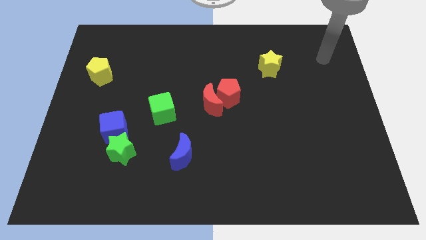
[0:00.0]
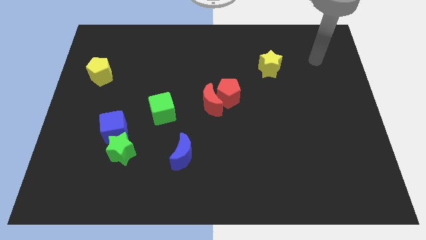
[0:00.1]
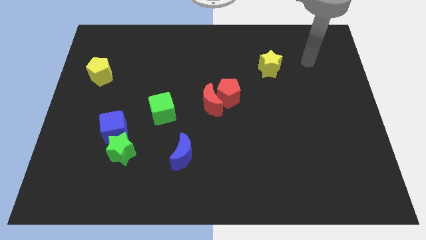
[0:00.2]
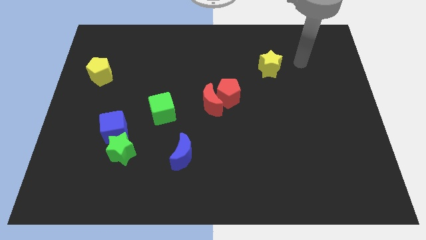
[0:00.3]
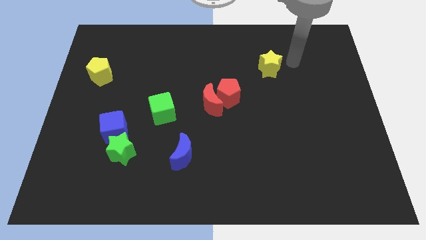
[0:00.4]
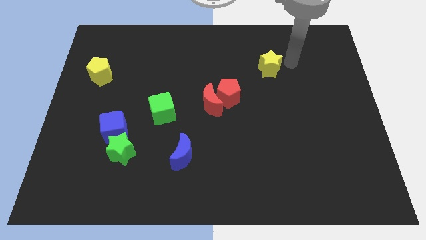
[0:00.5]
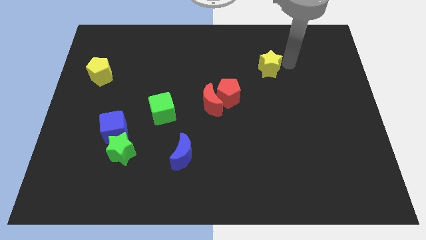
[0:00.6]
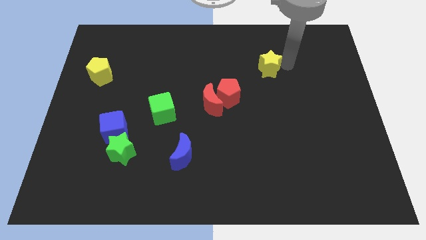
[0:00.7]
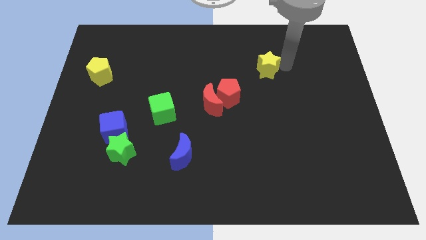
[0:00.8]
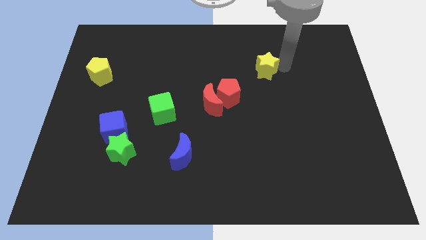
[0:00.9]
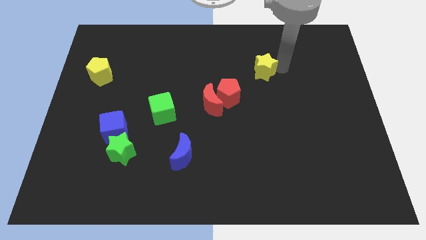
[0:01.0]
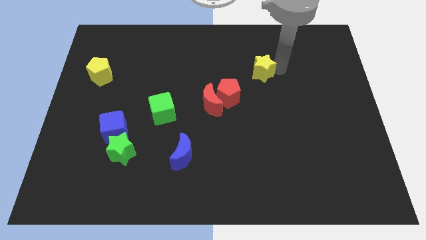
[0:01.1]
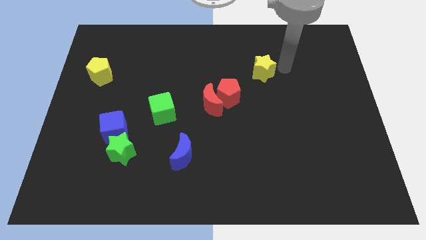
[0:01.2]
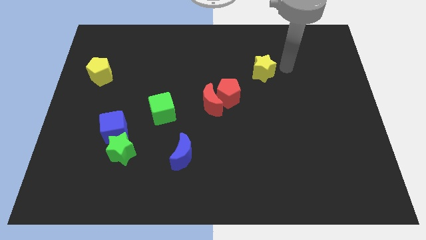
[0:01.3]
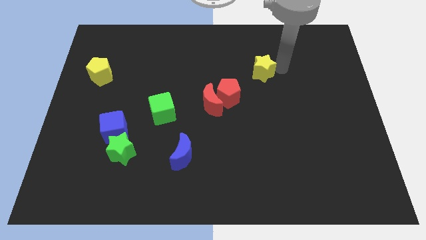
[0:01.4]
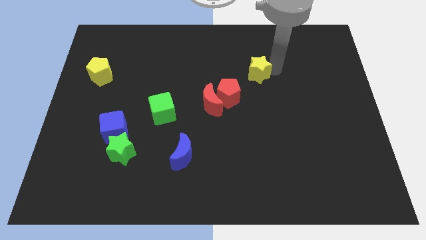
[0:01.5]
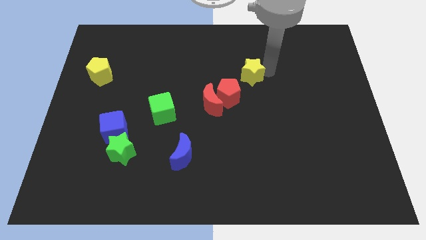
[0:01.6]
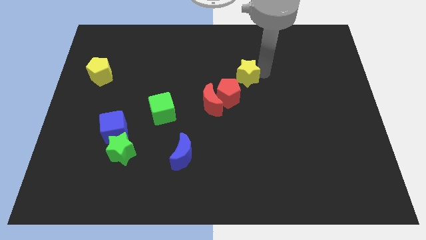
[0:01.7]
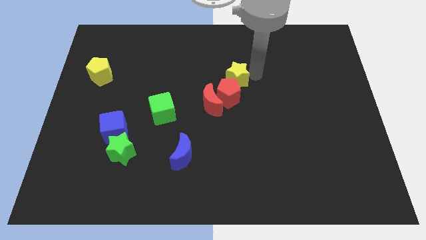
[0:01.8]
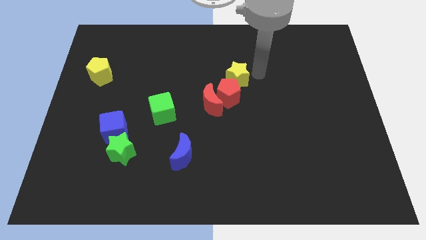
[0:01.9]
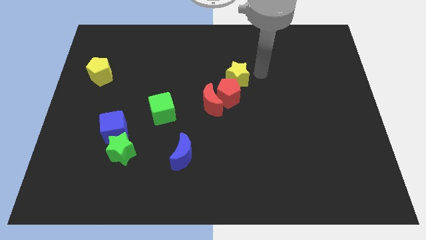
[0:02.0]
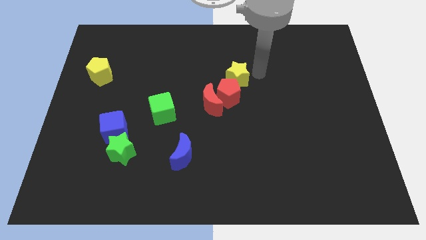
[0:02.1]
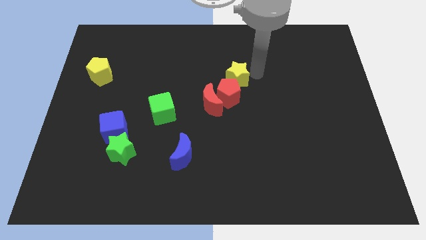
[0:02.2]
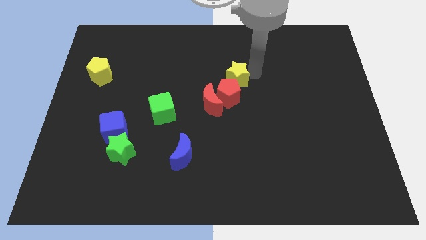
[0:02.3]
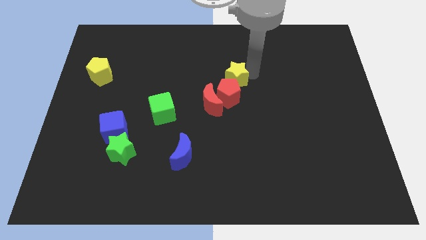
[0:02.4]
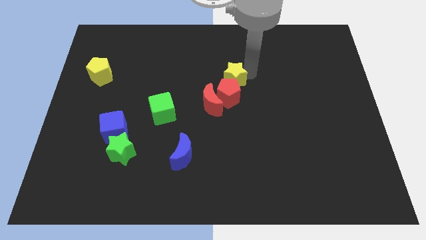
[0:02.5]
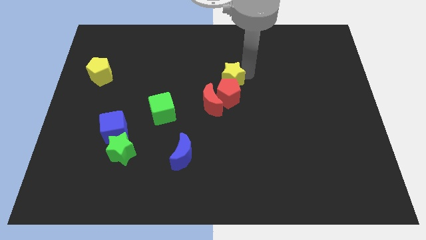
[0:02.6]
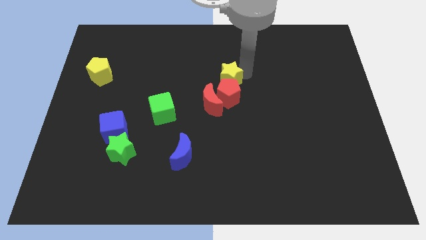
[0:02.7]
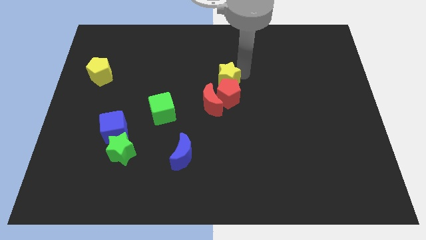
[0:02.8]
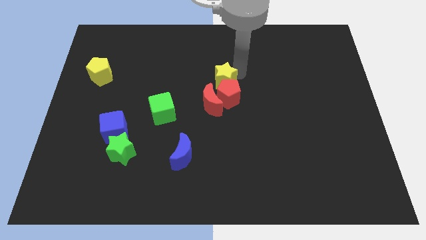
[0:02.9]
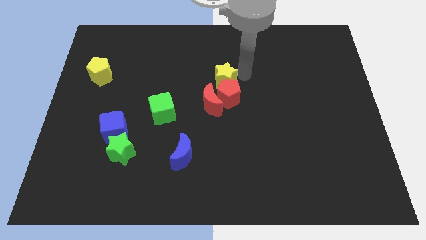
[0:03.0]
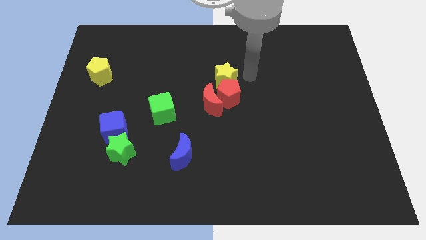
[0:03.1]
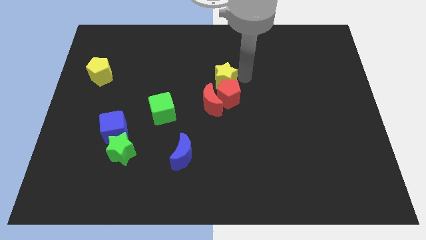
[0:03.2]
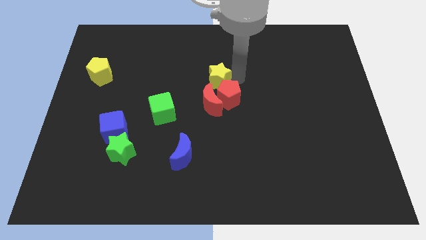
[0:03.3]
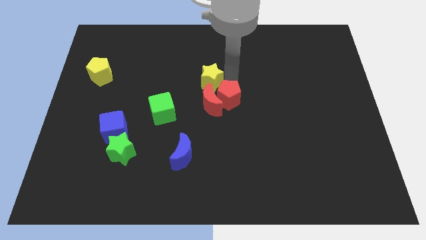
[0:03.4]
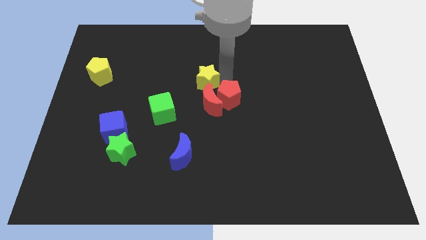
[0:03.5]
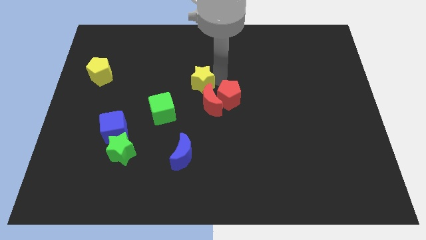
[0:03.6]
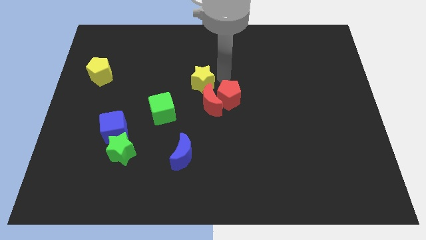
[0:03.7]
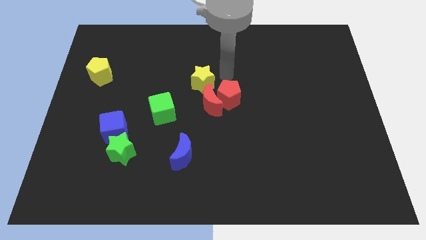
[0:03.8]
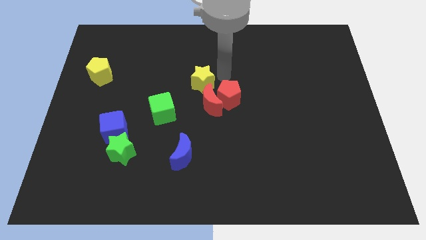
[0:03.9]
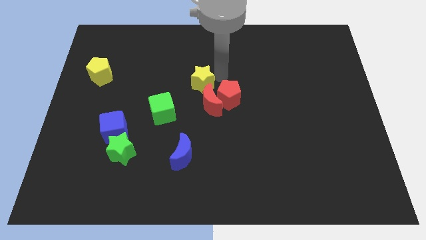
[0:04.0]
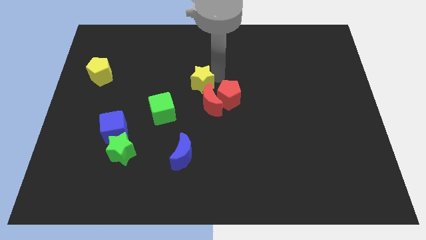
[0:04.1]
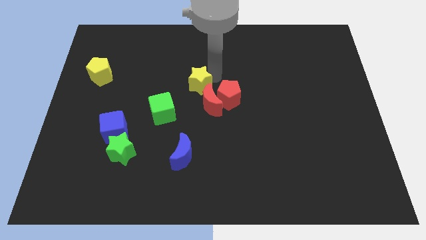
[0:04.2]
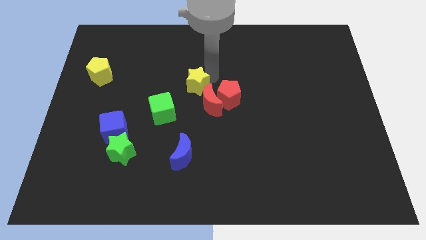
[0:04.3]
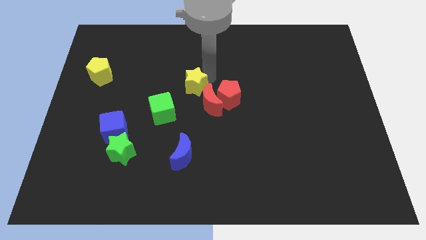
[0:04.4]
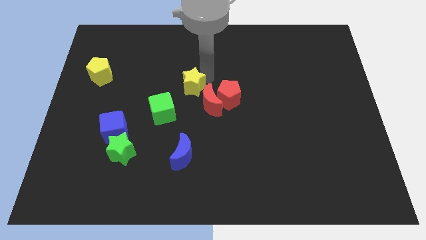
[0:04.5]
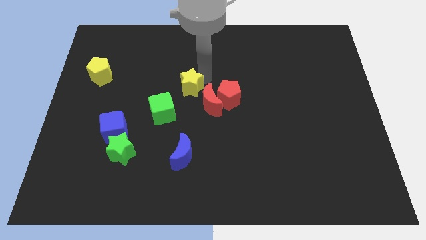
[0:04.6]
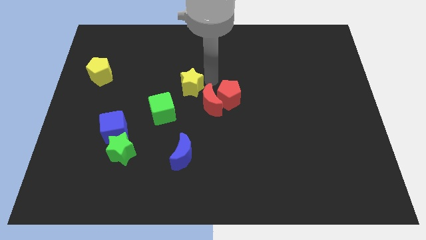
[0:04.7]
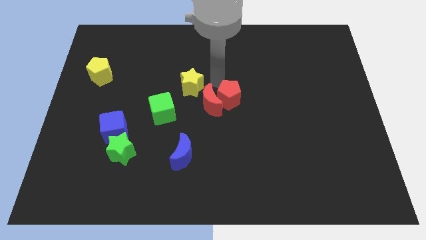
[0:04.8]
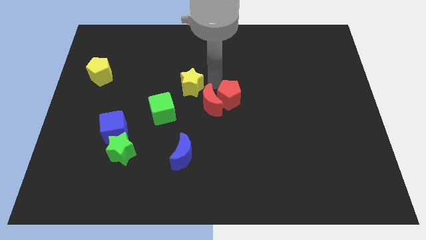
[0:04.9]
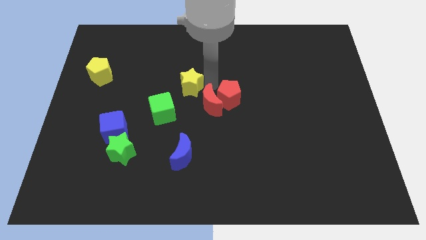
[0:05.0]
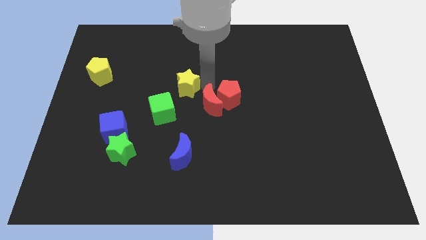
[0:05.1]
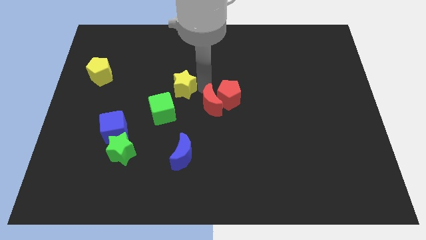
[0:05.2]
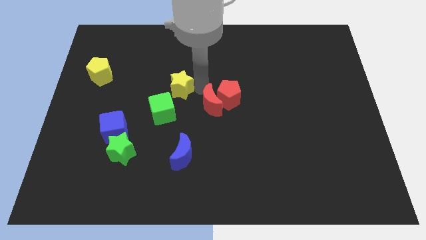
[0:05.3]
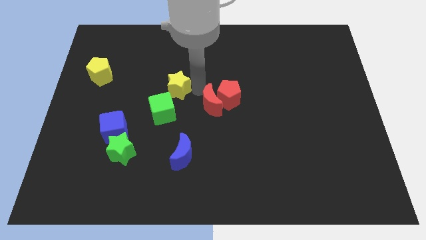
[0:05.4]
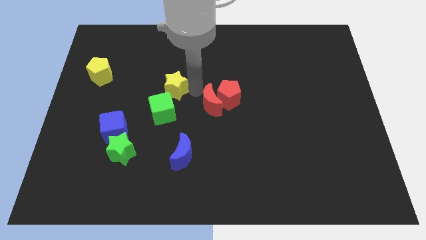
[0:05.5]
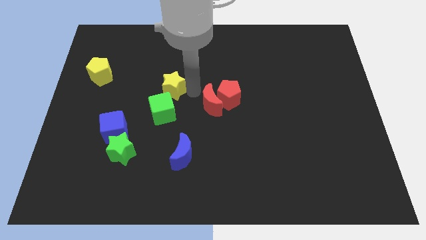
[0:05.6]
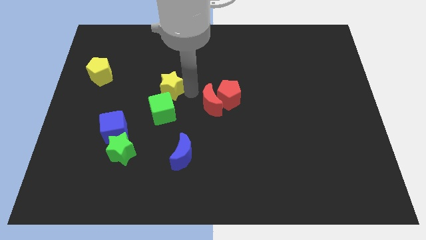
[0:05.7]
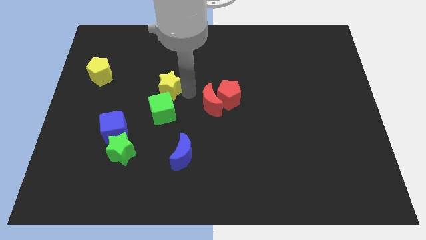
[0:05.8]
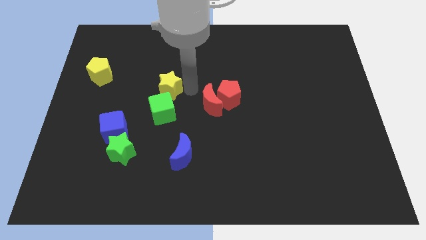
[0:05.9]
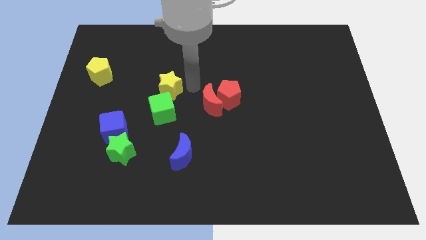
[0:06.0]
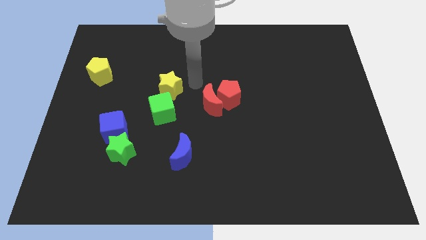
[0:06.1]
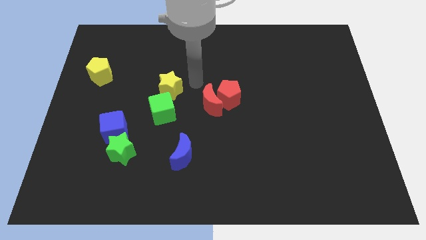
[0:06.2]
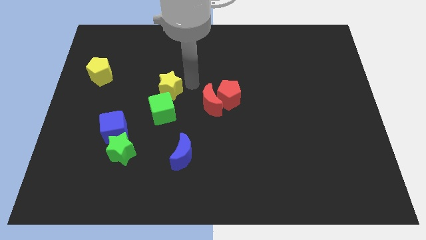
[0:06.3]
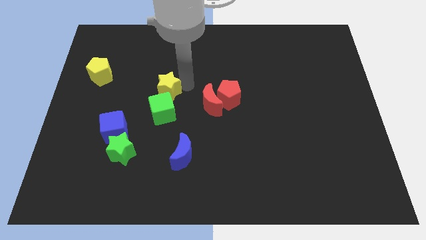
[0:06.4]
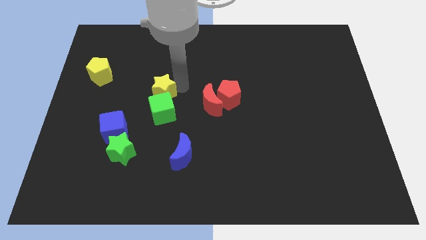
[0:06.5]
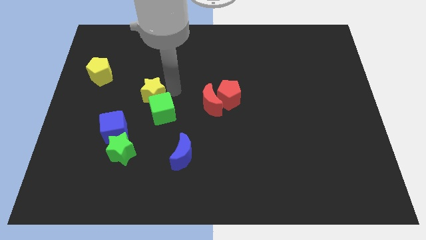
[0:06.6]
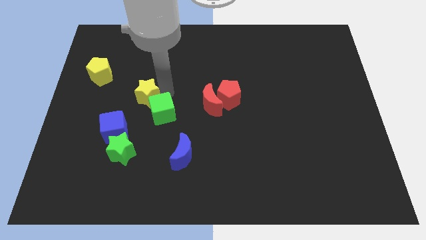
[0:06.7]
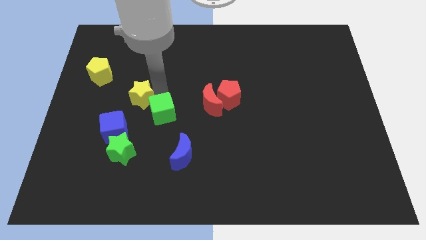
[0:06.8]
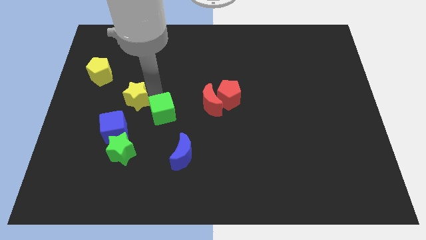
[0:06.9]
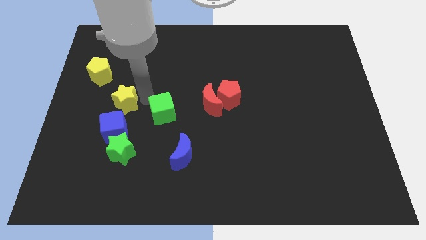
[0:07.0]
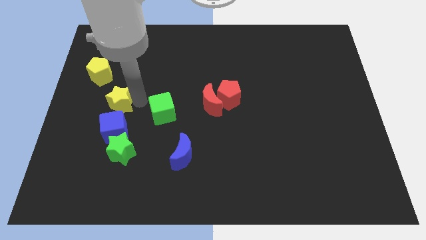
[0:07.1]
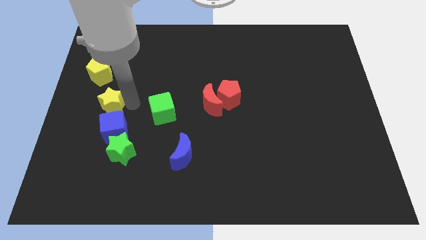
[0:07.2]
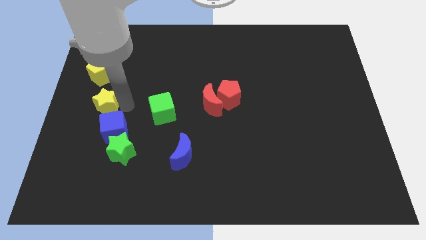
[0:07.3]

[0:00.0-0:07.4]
push the yellow star to the left side
